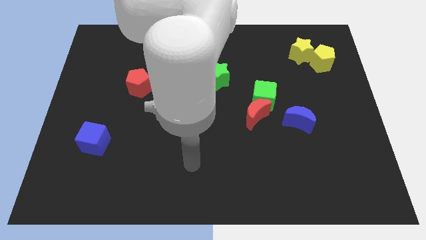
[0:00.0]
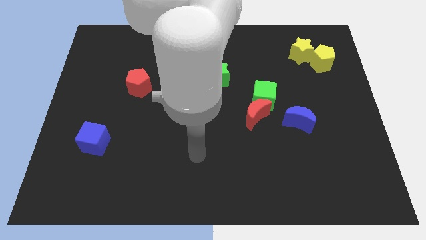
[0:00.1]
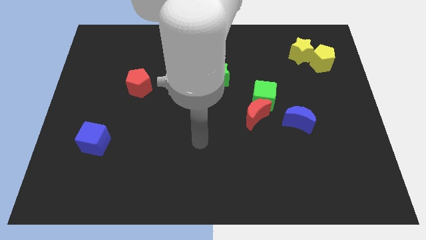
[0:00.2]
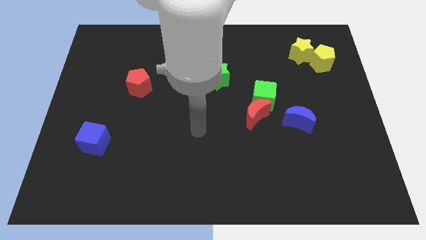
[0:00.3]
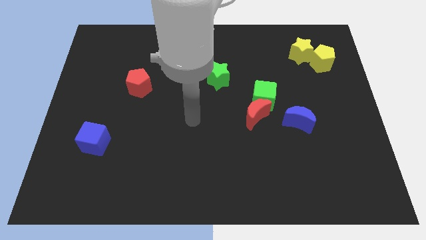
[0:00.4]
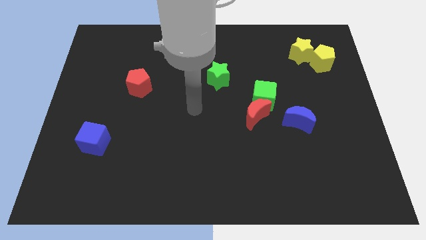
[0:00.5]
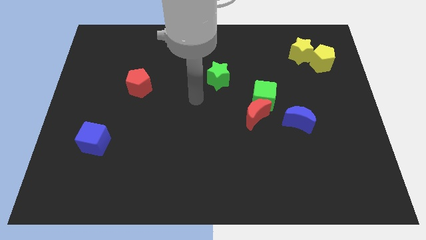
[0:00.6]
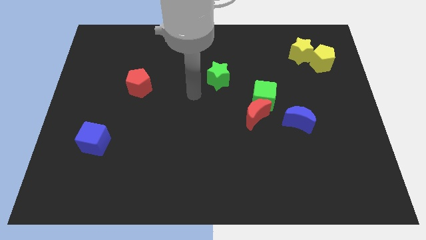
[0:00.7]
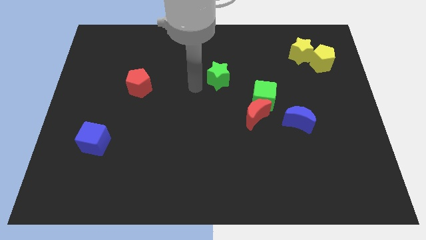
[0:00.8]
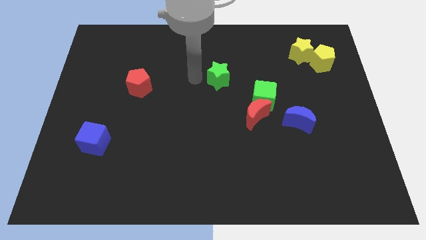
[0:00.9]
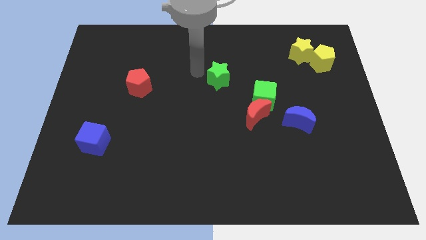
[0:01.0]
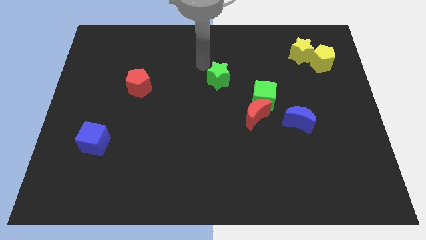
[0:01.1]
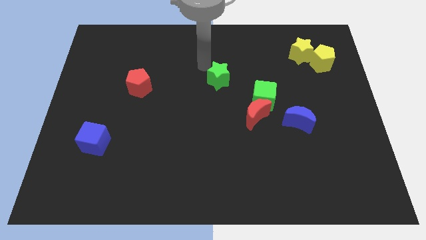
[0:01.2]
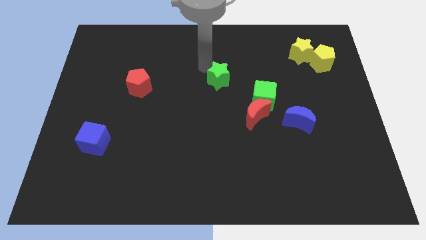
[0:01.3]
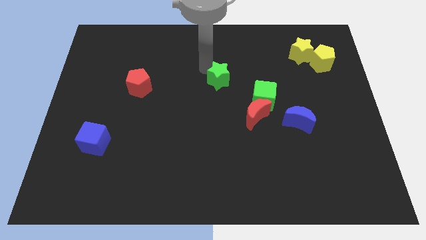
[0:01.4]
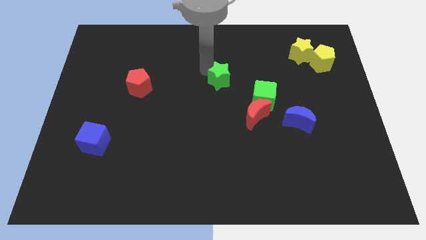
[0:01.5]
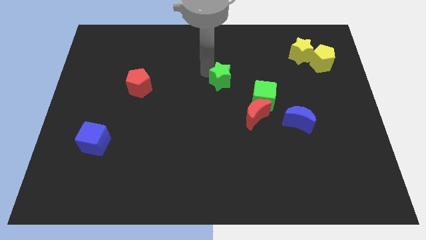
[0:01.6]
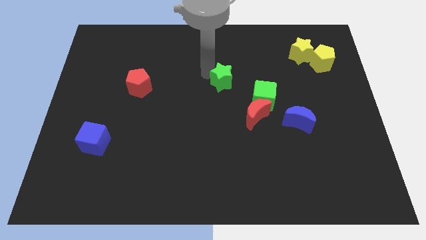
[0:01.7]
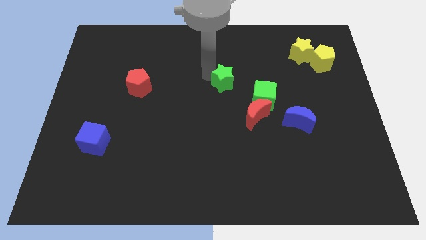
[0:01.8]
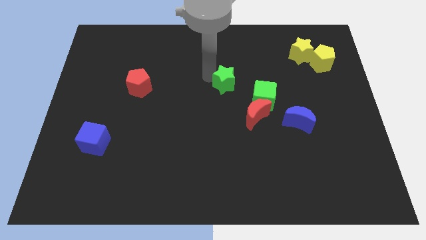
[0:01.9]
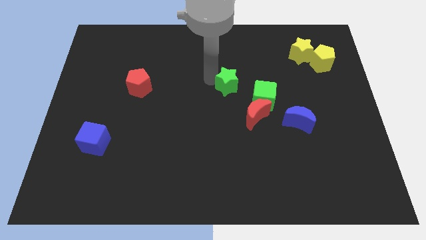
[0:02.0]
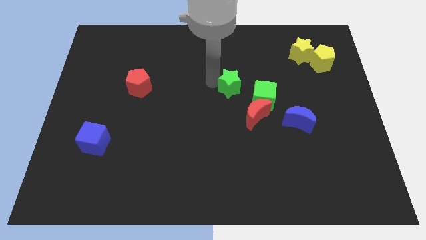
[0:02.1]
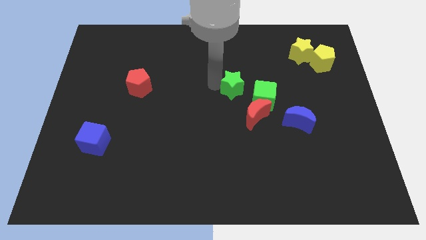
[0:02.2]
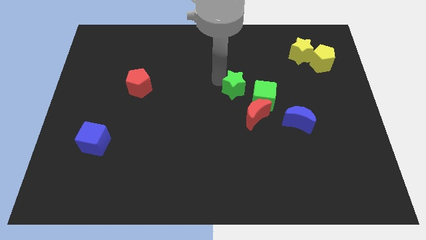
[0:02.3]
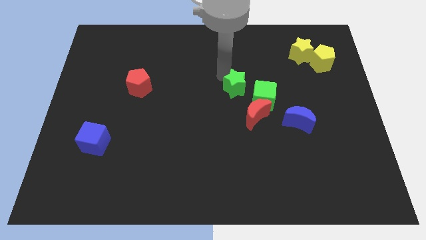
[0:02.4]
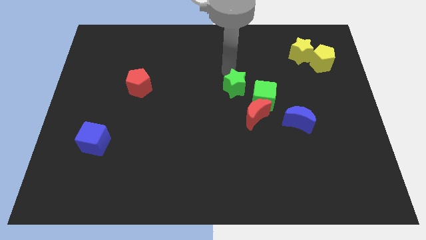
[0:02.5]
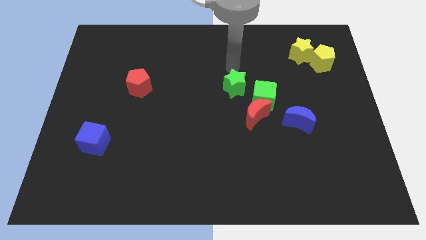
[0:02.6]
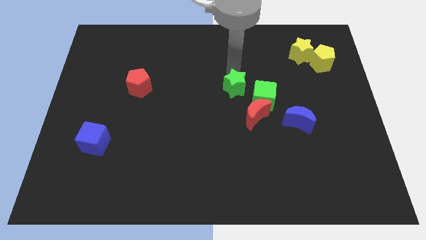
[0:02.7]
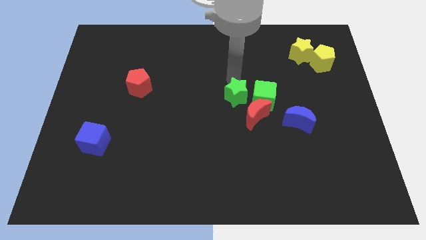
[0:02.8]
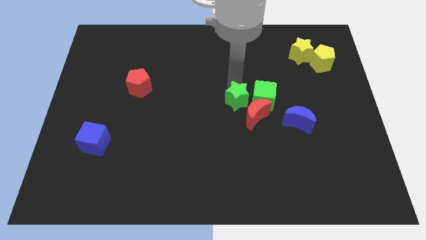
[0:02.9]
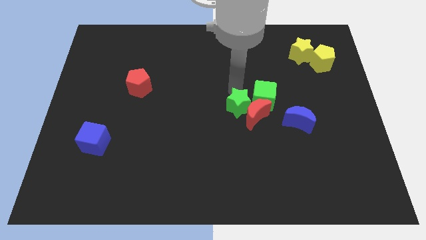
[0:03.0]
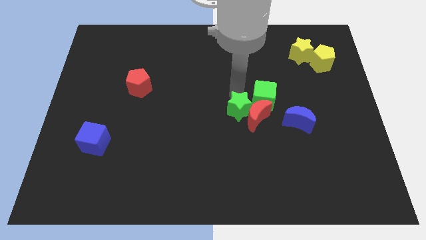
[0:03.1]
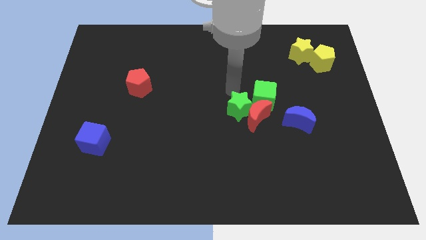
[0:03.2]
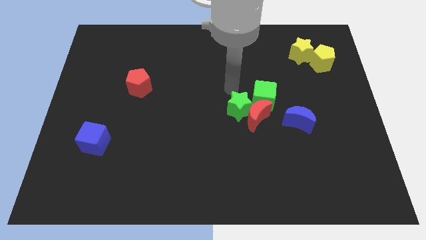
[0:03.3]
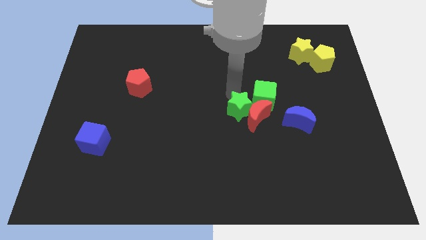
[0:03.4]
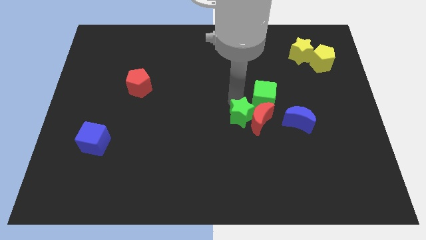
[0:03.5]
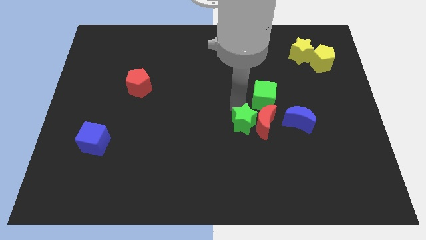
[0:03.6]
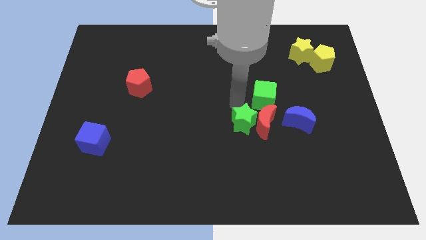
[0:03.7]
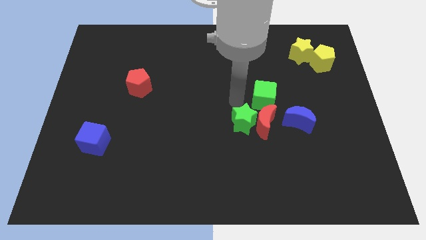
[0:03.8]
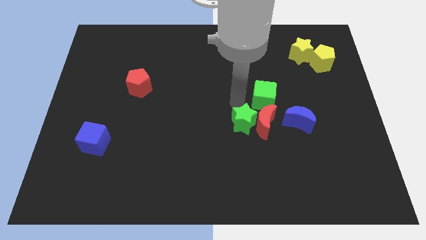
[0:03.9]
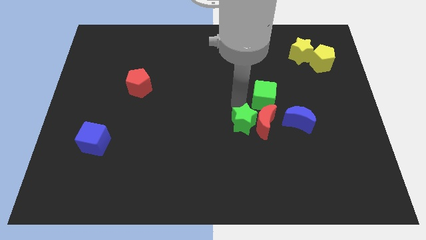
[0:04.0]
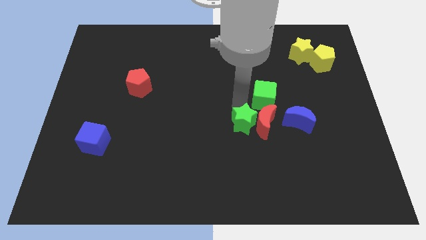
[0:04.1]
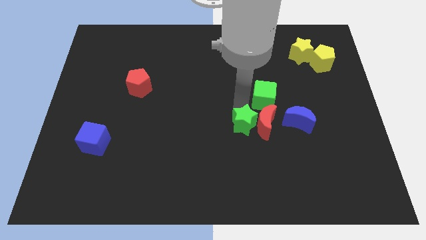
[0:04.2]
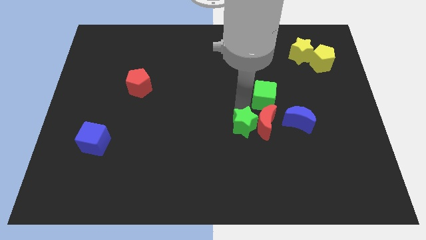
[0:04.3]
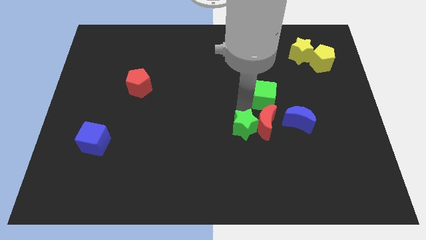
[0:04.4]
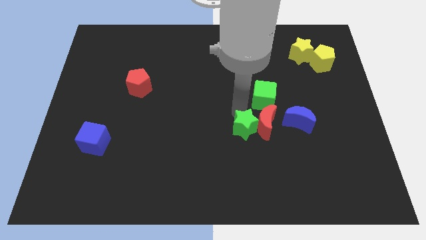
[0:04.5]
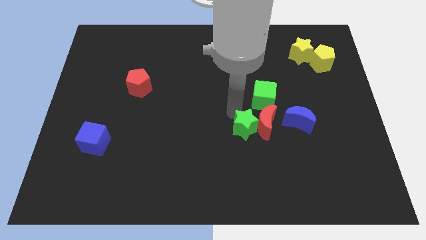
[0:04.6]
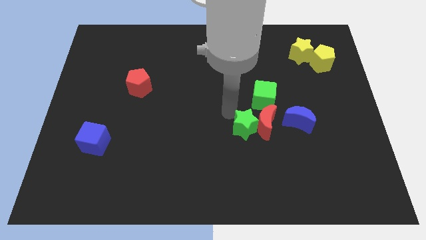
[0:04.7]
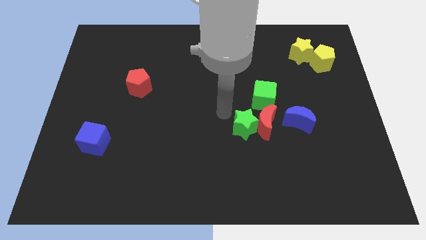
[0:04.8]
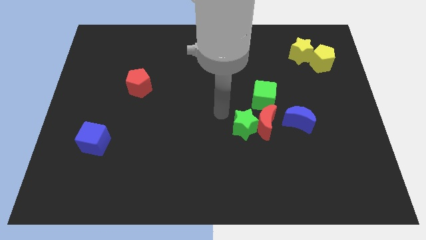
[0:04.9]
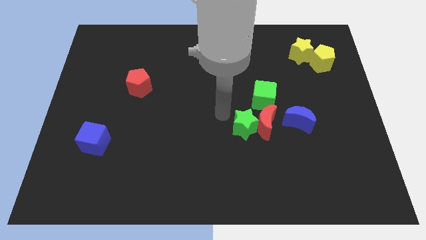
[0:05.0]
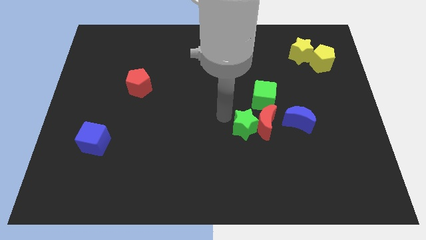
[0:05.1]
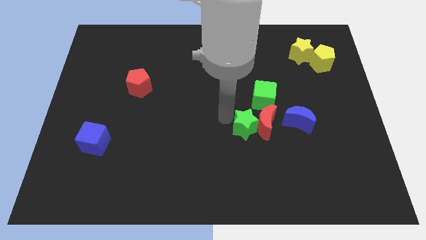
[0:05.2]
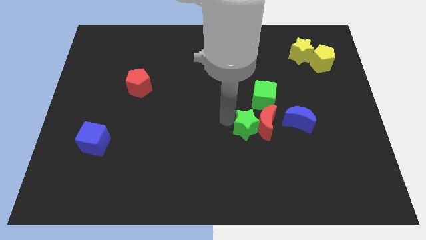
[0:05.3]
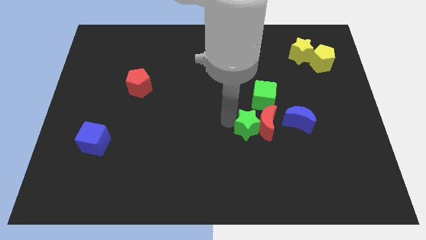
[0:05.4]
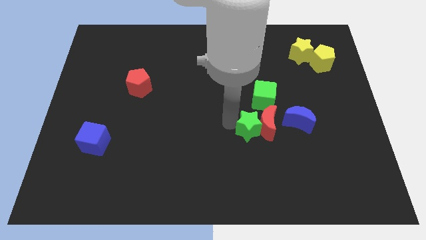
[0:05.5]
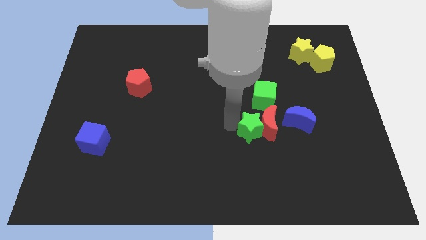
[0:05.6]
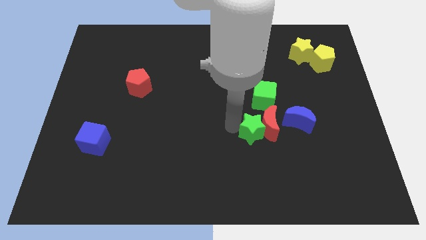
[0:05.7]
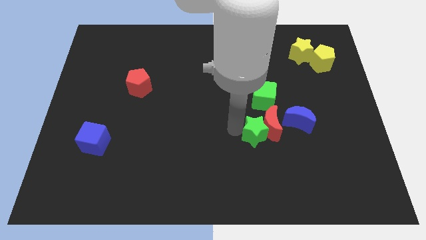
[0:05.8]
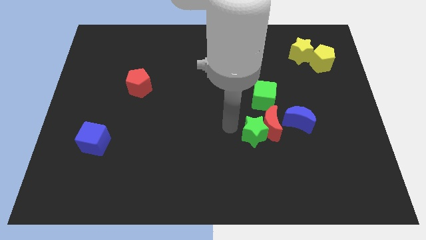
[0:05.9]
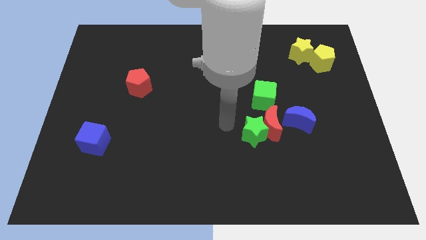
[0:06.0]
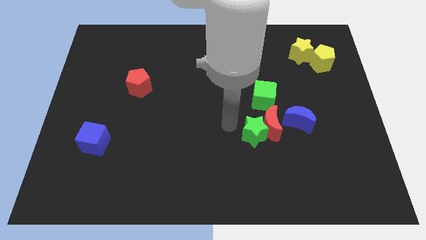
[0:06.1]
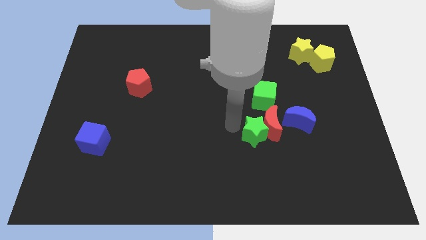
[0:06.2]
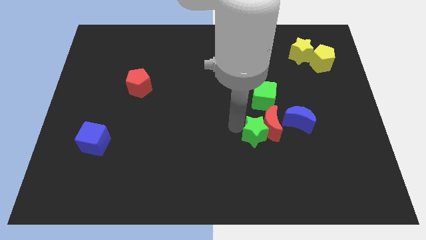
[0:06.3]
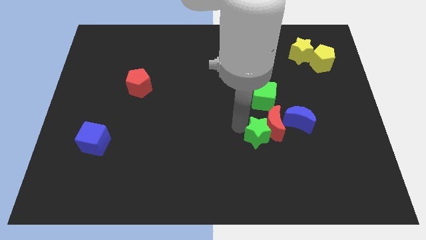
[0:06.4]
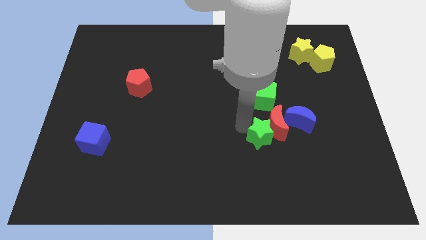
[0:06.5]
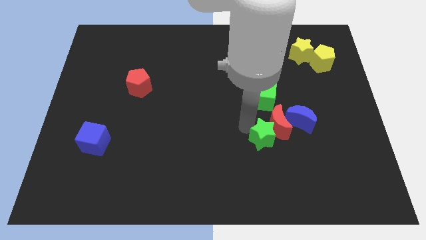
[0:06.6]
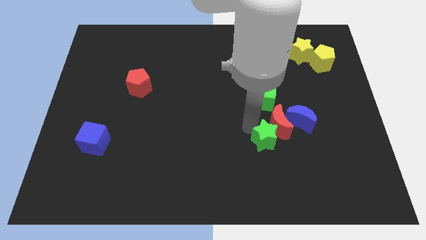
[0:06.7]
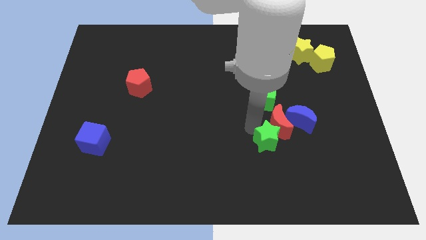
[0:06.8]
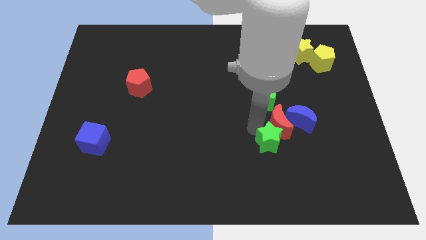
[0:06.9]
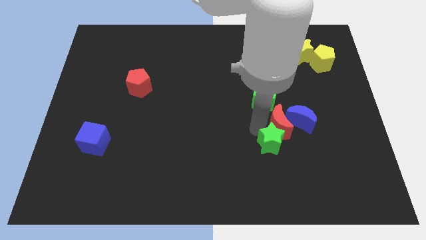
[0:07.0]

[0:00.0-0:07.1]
move the green star downwards and then right

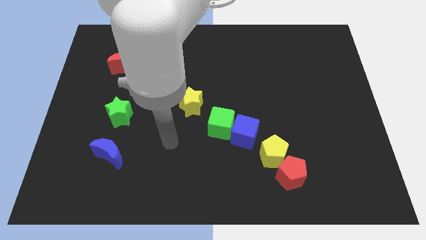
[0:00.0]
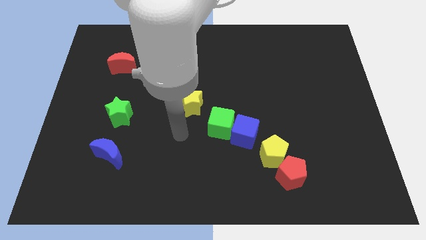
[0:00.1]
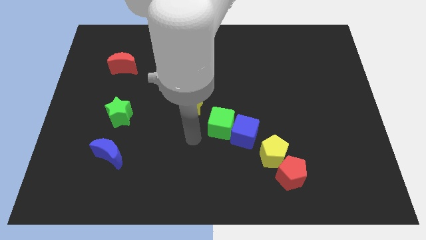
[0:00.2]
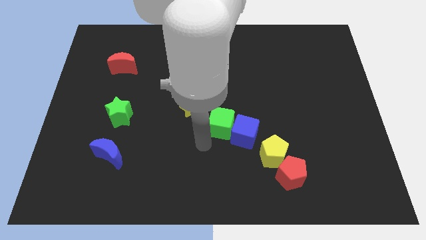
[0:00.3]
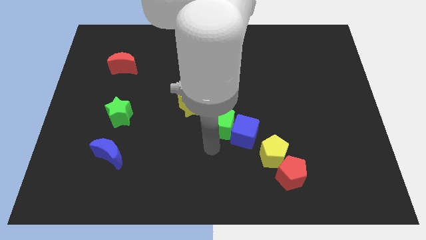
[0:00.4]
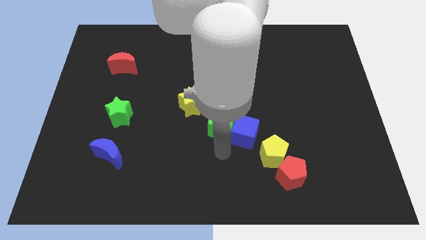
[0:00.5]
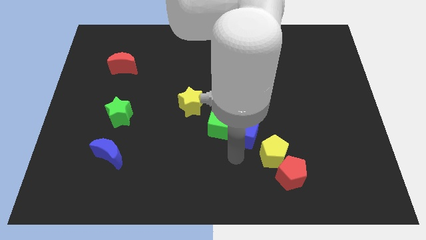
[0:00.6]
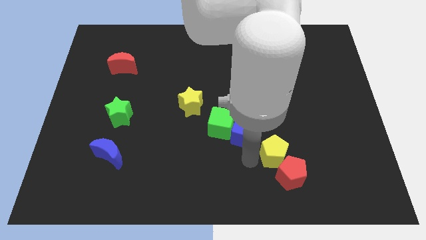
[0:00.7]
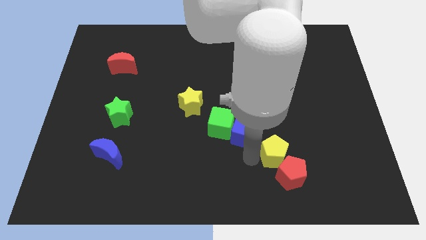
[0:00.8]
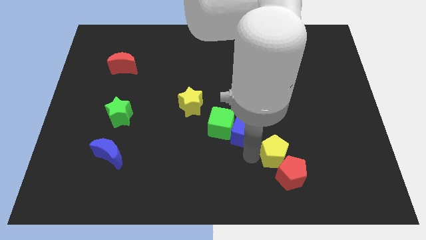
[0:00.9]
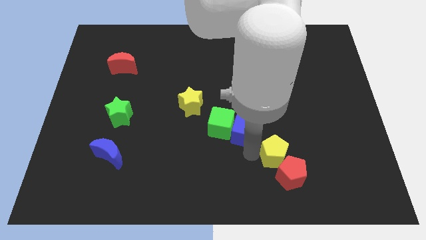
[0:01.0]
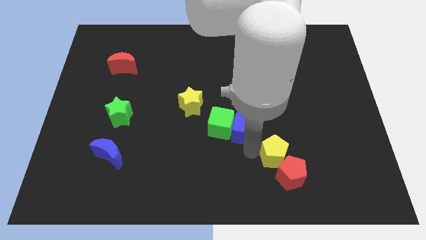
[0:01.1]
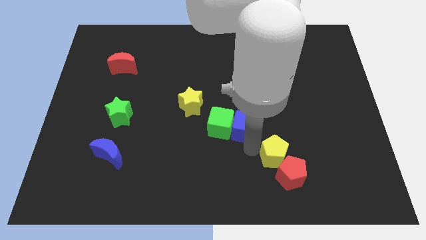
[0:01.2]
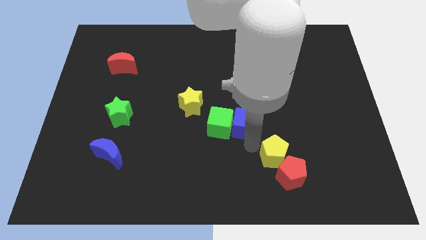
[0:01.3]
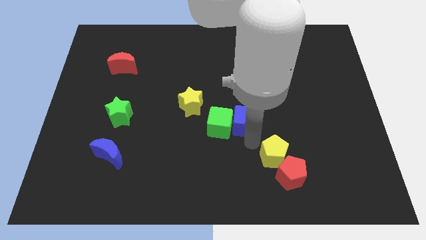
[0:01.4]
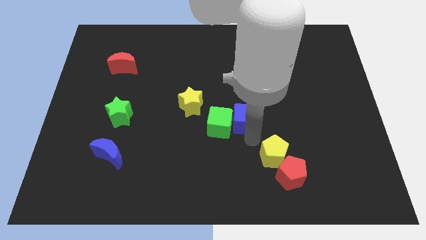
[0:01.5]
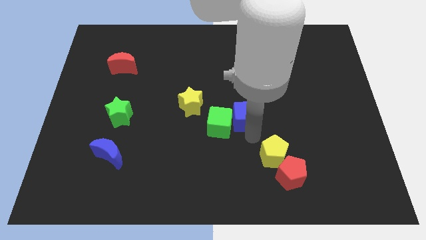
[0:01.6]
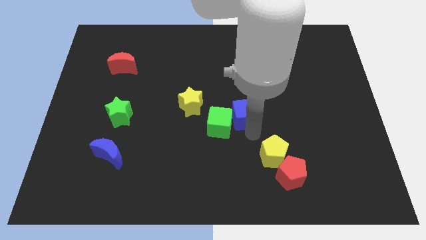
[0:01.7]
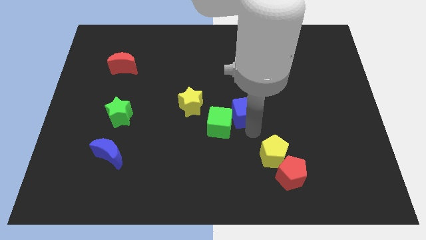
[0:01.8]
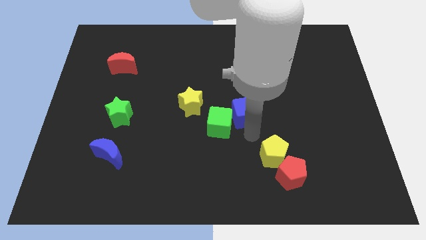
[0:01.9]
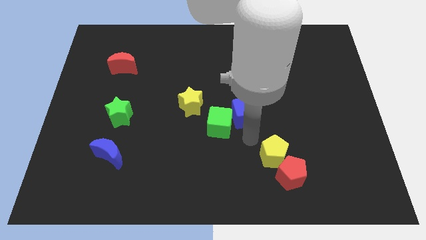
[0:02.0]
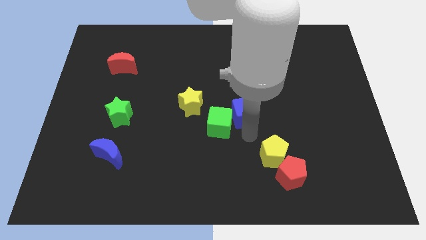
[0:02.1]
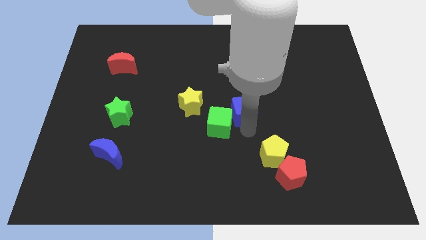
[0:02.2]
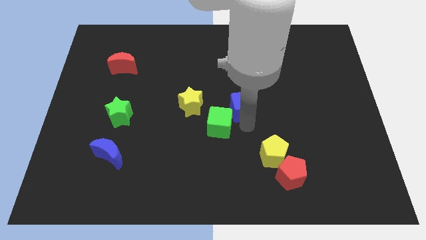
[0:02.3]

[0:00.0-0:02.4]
slightly push the blue cube up
